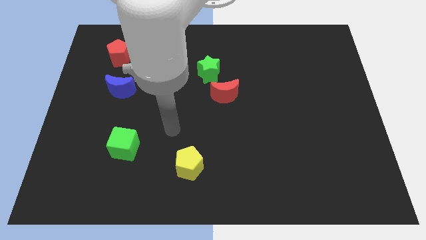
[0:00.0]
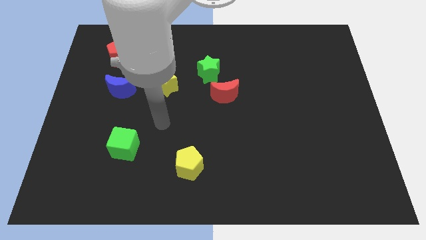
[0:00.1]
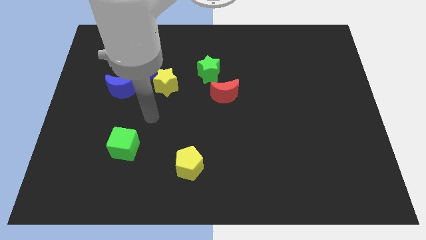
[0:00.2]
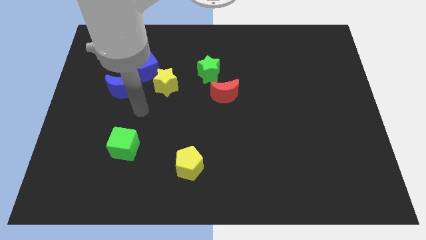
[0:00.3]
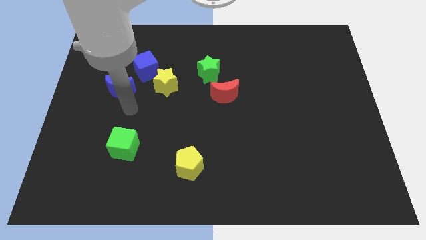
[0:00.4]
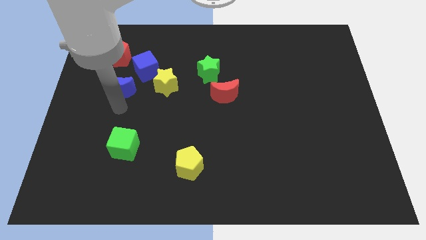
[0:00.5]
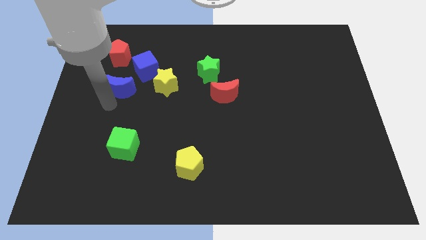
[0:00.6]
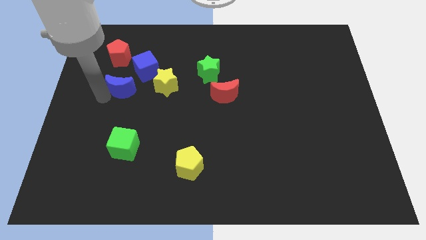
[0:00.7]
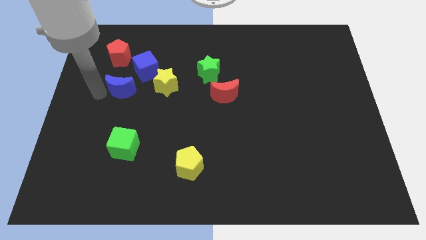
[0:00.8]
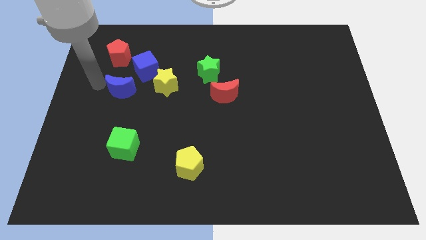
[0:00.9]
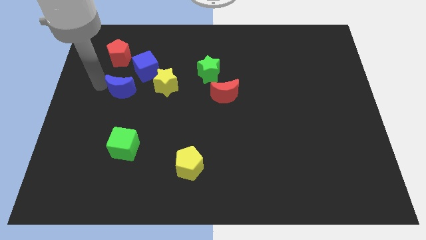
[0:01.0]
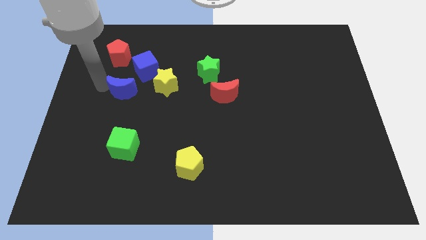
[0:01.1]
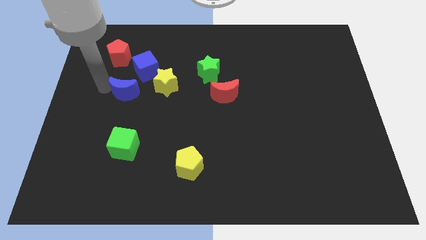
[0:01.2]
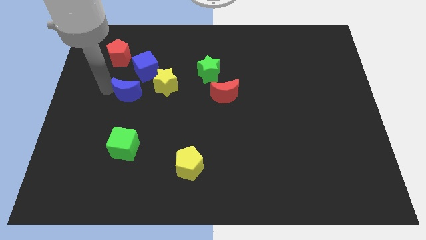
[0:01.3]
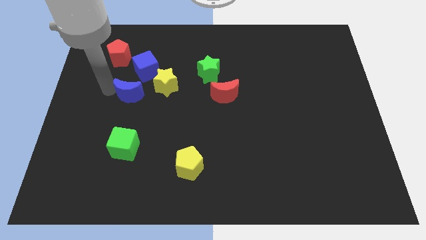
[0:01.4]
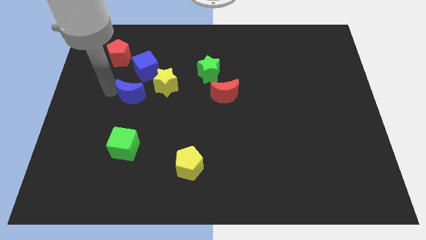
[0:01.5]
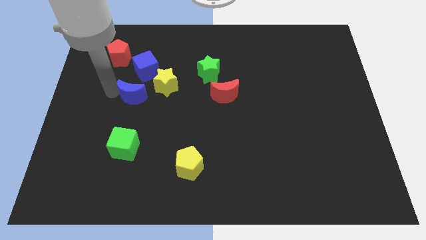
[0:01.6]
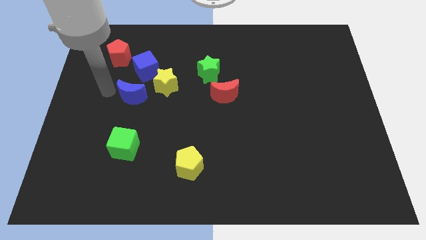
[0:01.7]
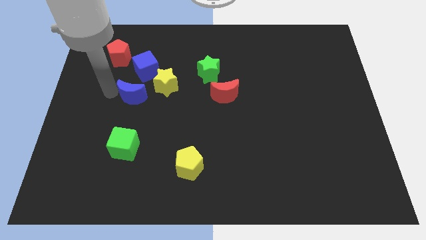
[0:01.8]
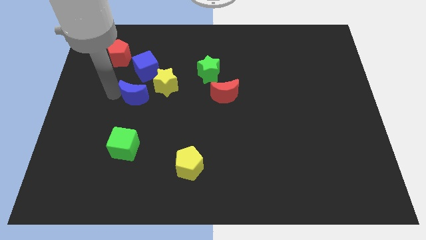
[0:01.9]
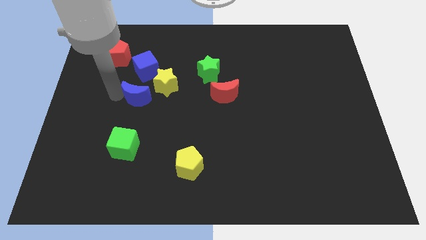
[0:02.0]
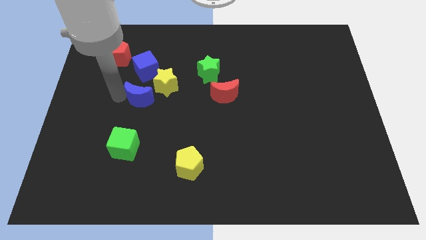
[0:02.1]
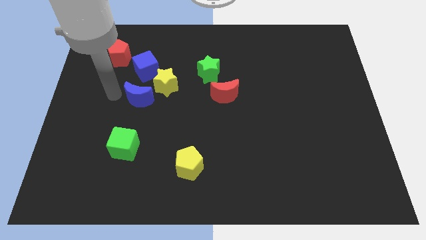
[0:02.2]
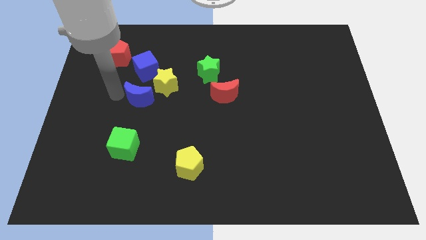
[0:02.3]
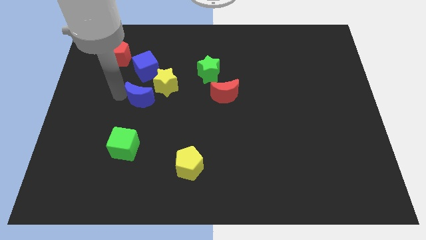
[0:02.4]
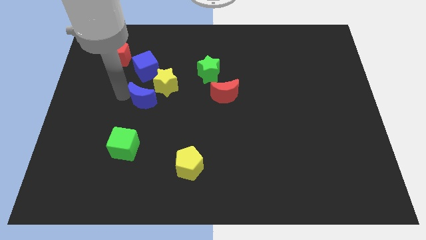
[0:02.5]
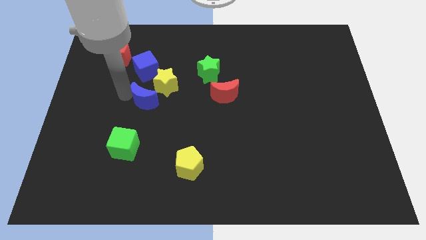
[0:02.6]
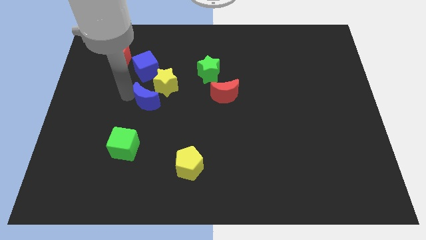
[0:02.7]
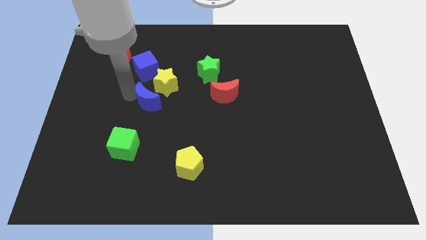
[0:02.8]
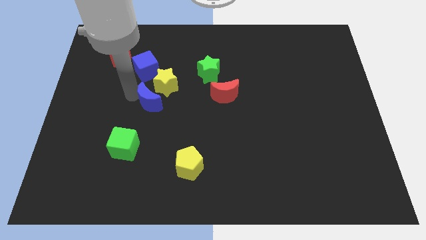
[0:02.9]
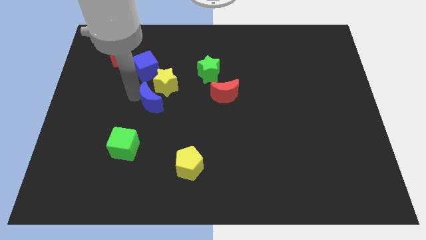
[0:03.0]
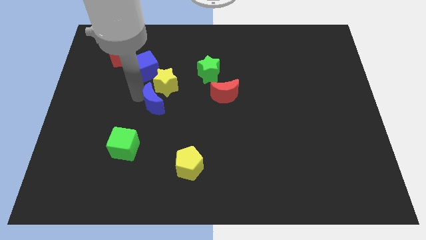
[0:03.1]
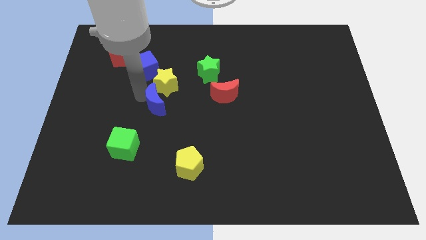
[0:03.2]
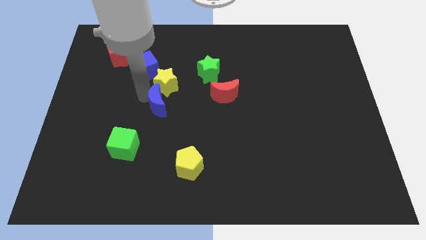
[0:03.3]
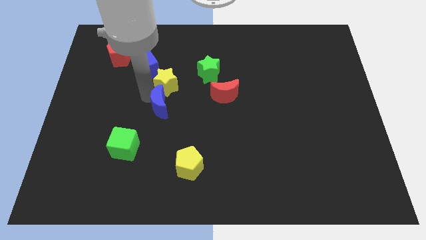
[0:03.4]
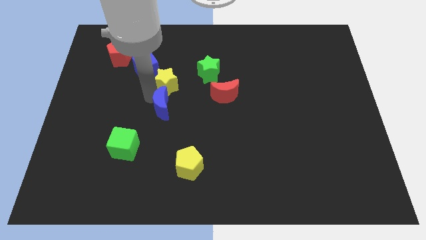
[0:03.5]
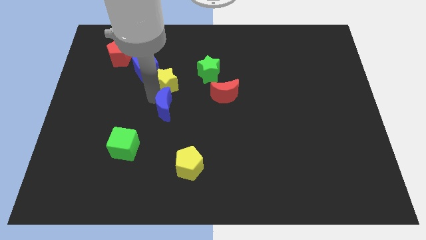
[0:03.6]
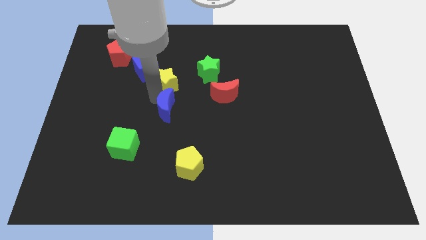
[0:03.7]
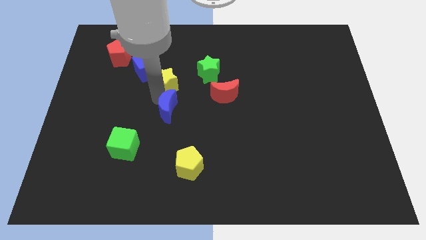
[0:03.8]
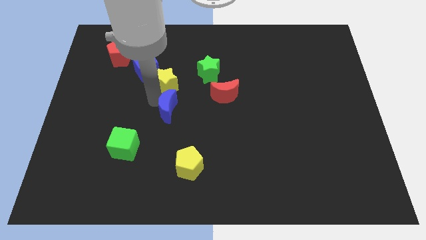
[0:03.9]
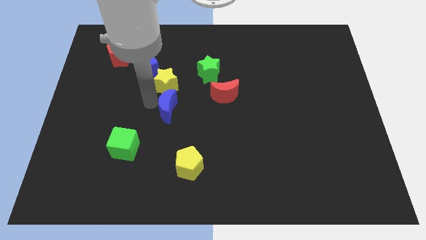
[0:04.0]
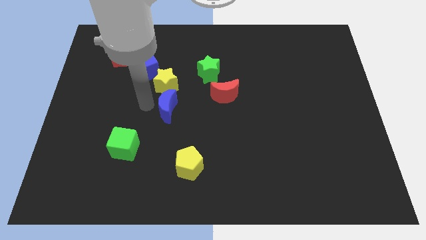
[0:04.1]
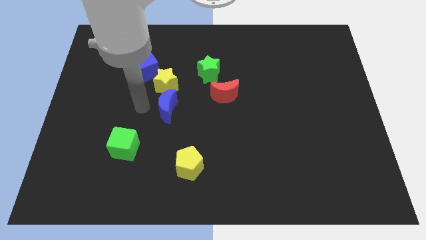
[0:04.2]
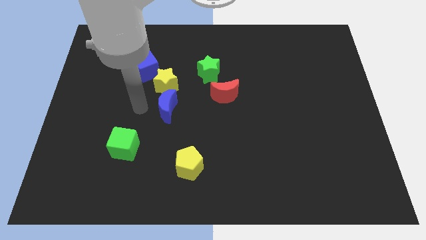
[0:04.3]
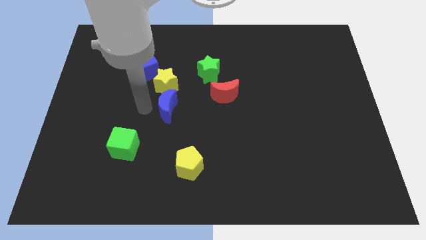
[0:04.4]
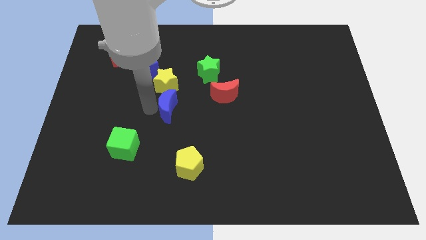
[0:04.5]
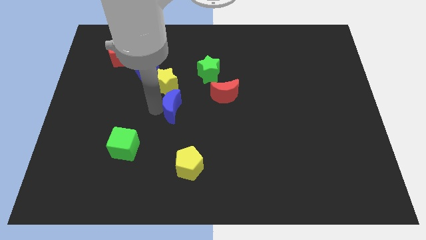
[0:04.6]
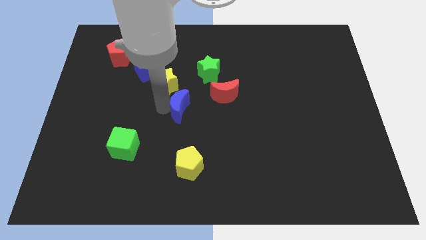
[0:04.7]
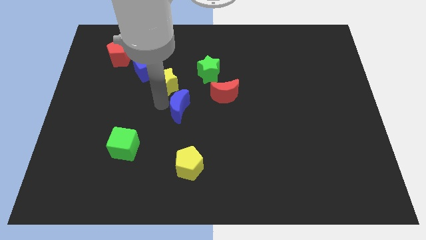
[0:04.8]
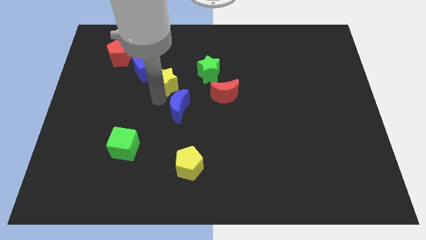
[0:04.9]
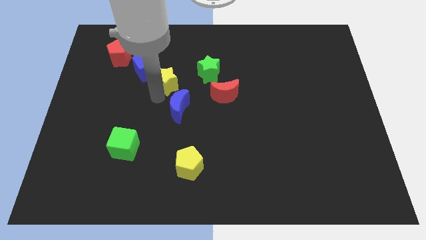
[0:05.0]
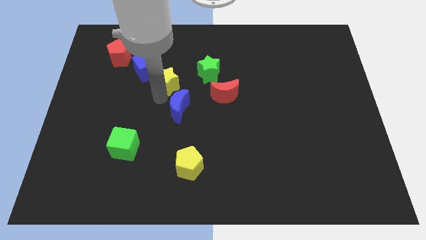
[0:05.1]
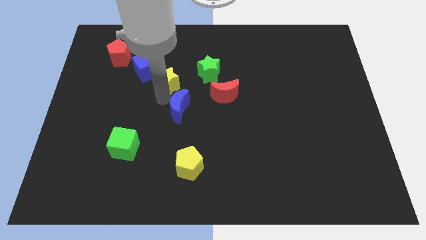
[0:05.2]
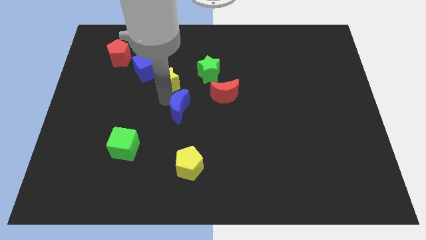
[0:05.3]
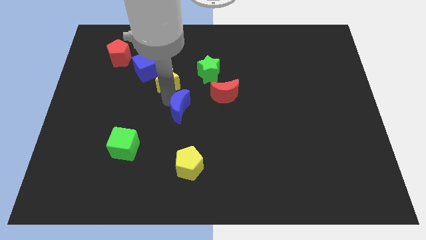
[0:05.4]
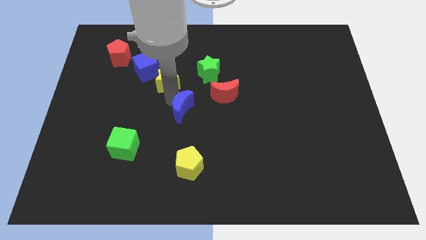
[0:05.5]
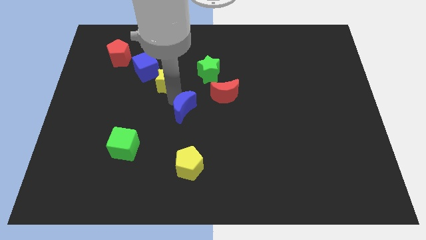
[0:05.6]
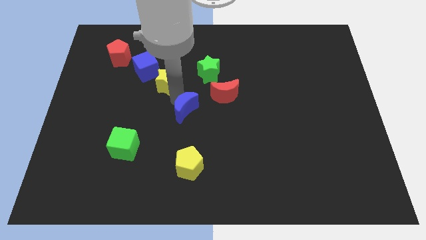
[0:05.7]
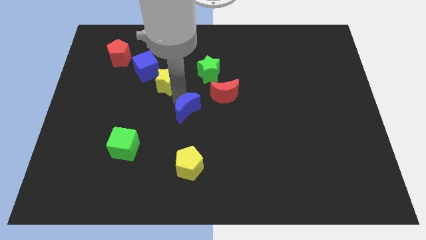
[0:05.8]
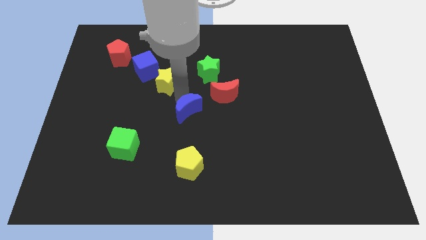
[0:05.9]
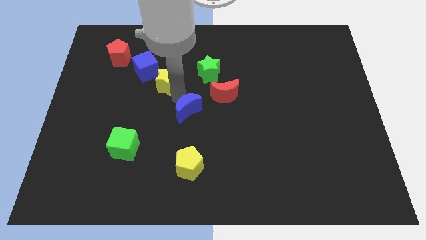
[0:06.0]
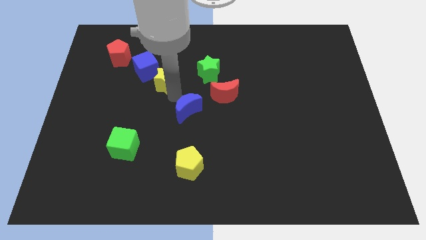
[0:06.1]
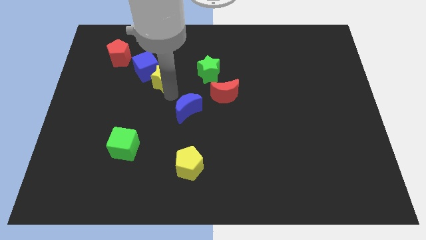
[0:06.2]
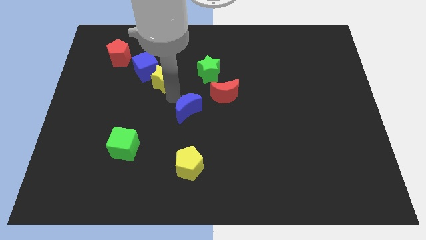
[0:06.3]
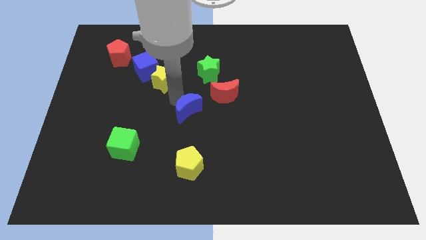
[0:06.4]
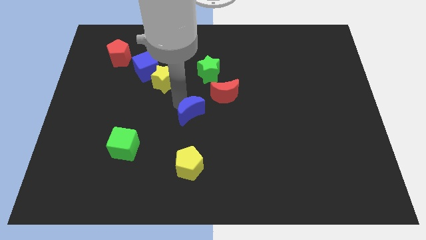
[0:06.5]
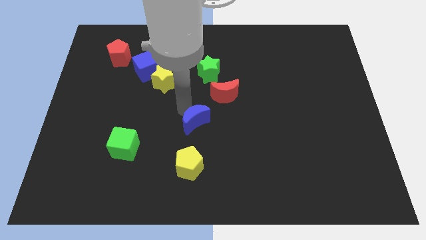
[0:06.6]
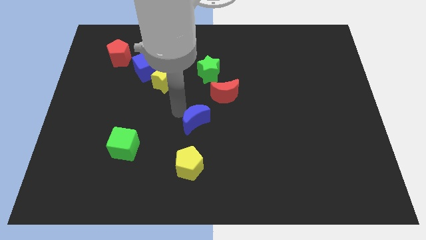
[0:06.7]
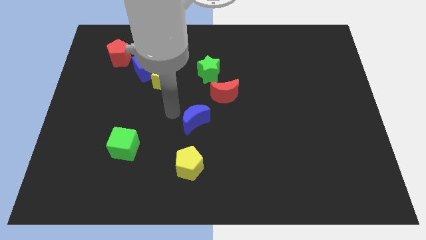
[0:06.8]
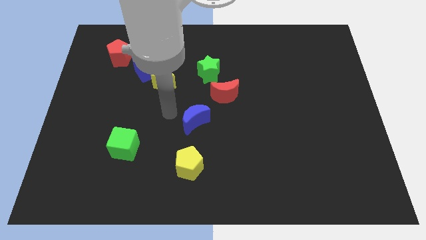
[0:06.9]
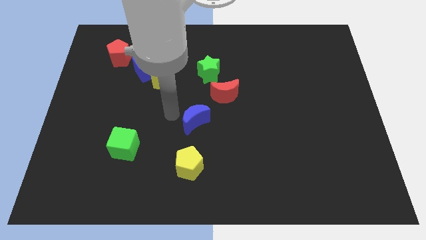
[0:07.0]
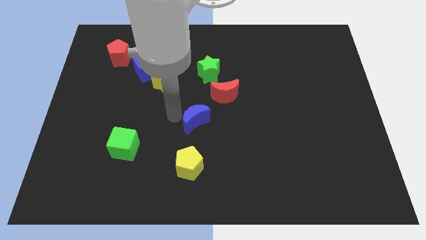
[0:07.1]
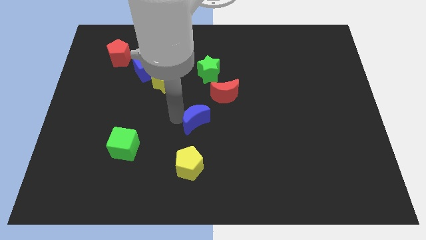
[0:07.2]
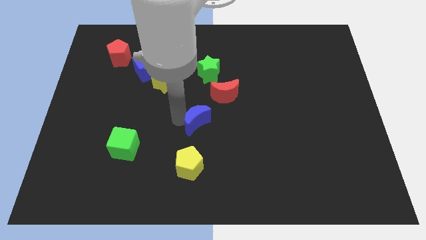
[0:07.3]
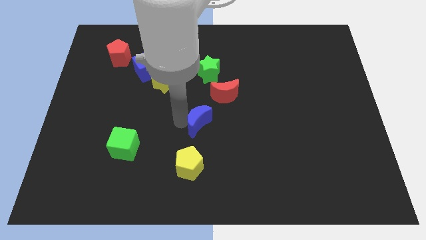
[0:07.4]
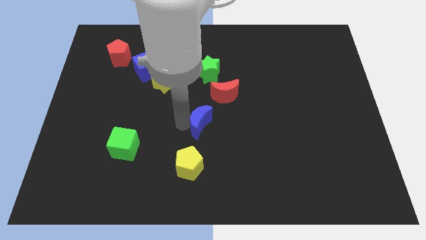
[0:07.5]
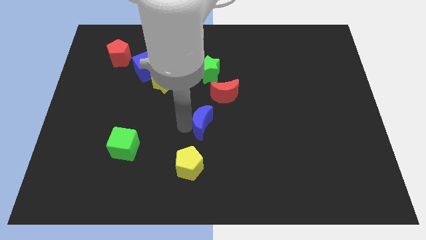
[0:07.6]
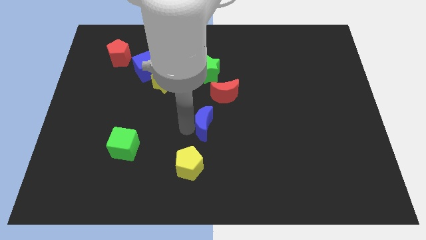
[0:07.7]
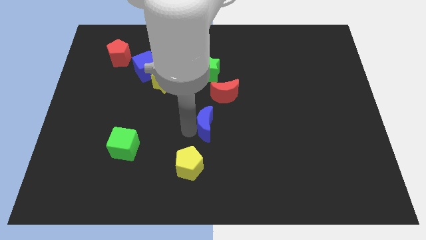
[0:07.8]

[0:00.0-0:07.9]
put the blue moon below the red moon
